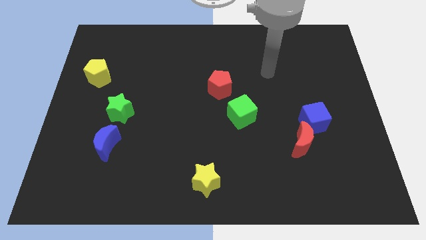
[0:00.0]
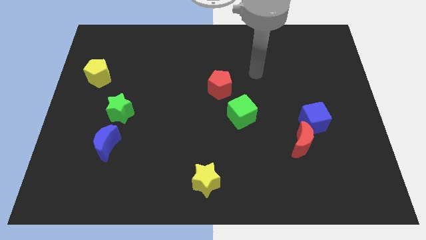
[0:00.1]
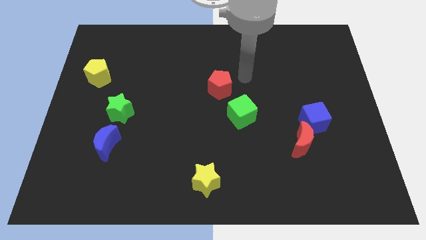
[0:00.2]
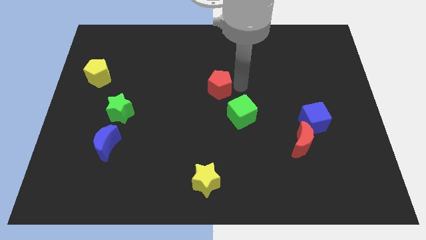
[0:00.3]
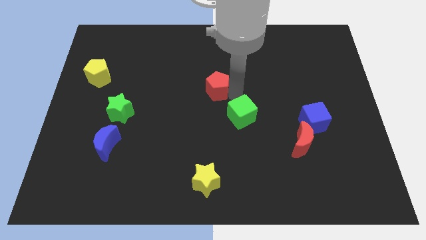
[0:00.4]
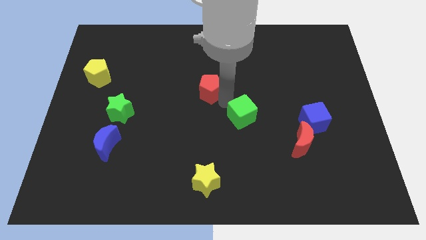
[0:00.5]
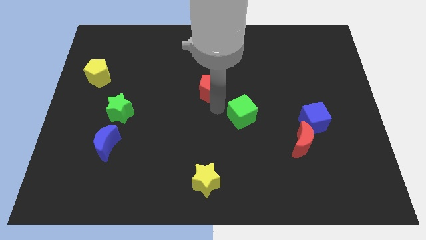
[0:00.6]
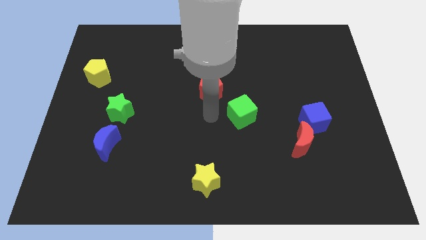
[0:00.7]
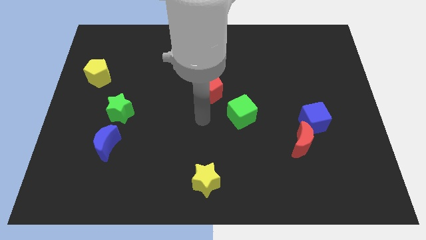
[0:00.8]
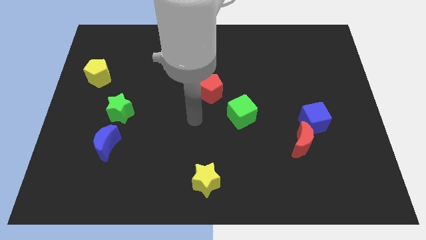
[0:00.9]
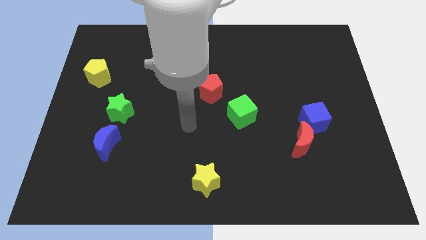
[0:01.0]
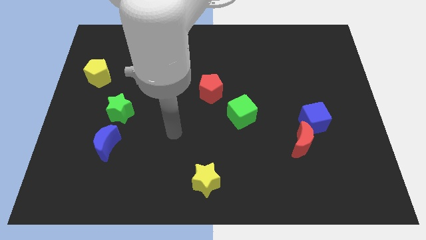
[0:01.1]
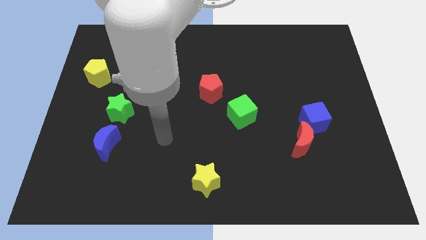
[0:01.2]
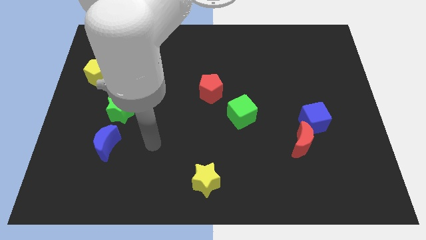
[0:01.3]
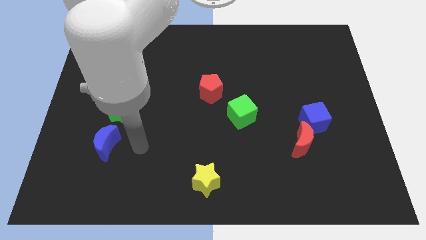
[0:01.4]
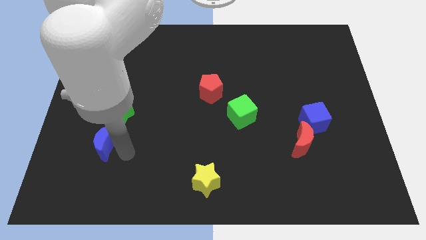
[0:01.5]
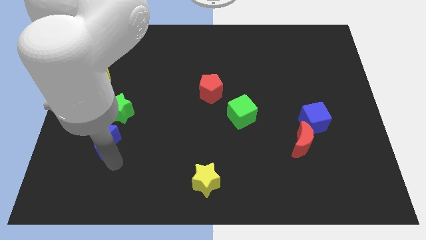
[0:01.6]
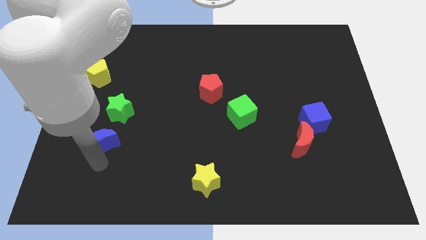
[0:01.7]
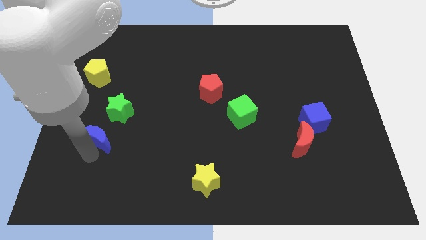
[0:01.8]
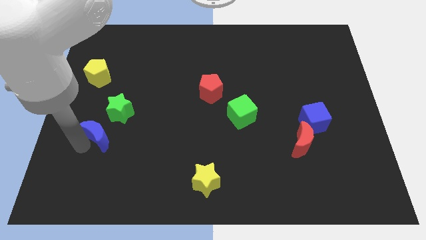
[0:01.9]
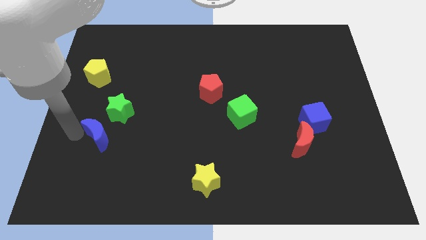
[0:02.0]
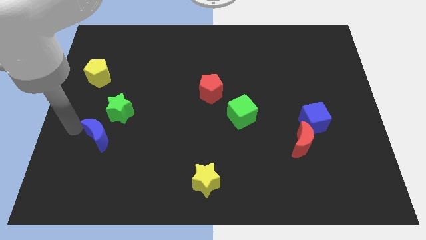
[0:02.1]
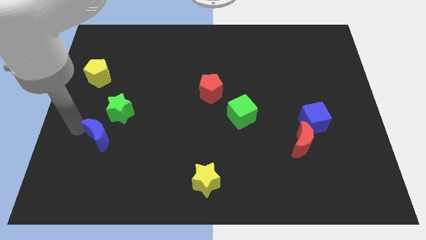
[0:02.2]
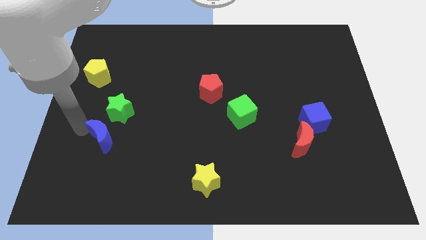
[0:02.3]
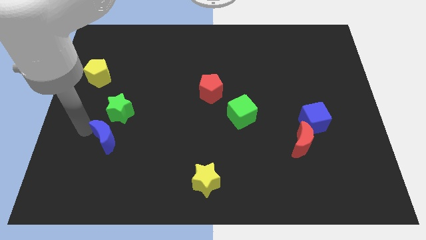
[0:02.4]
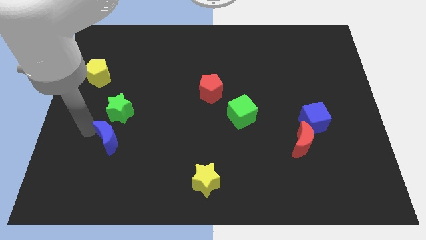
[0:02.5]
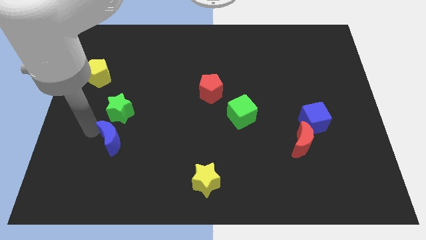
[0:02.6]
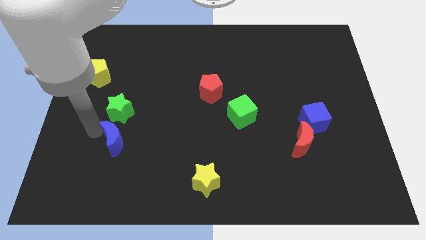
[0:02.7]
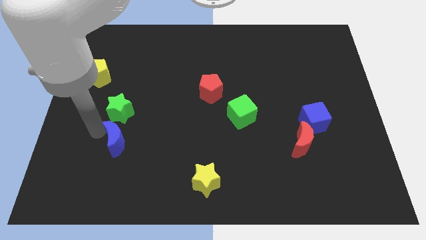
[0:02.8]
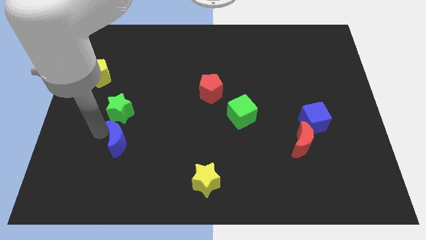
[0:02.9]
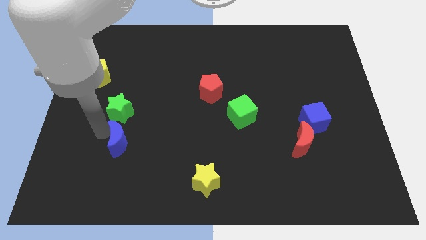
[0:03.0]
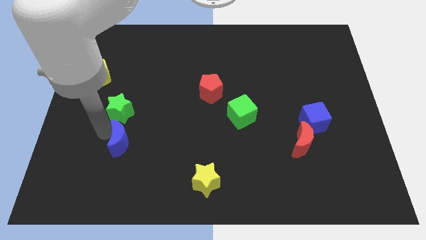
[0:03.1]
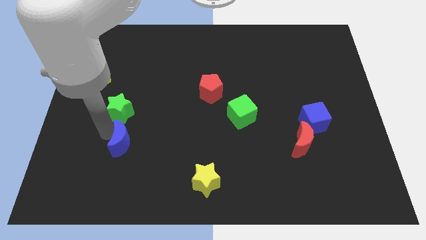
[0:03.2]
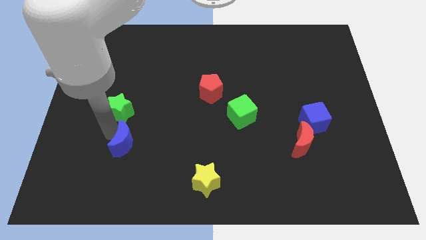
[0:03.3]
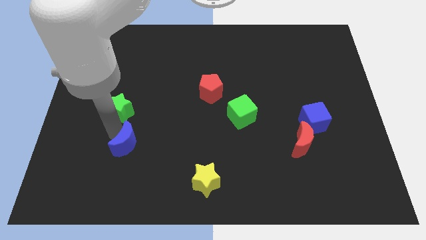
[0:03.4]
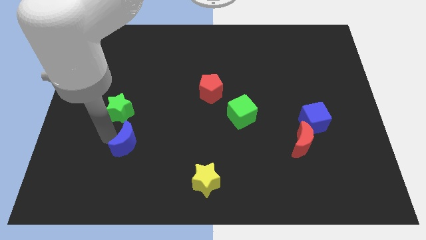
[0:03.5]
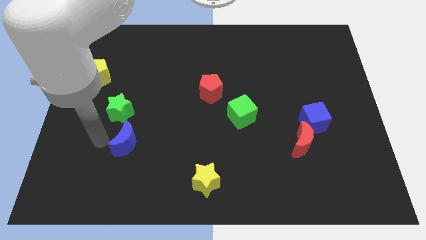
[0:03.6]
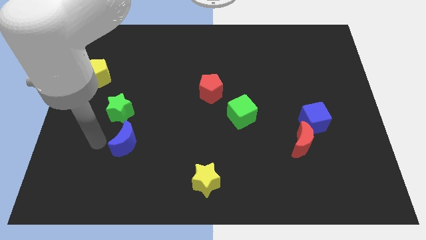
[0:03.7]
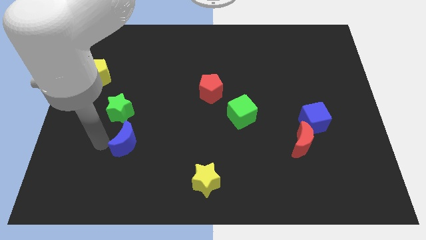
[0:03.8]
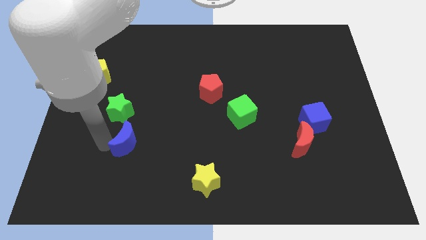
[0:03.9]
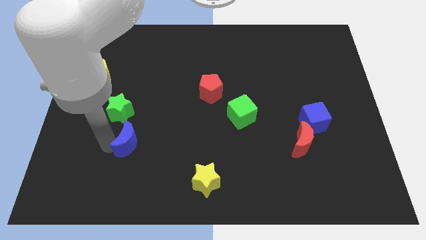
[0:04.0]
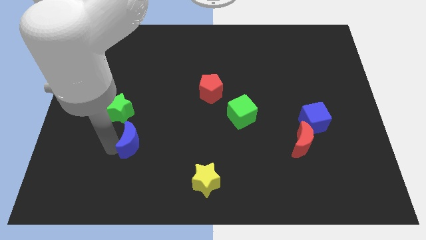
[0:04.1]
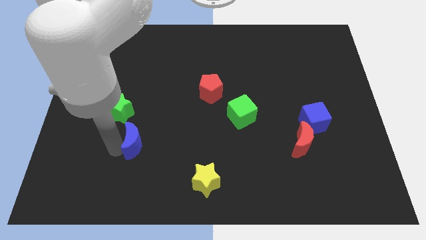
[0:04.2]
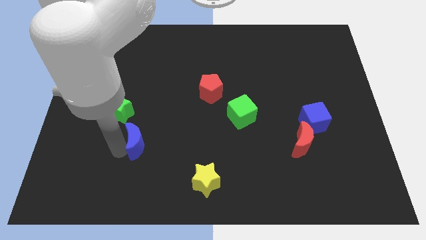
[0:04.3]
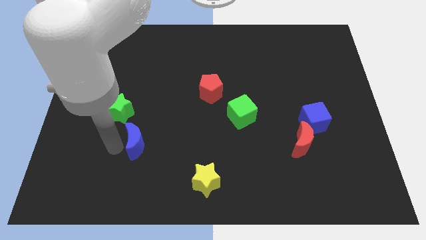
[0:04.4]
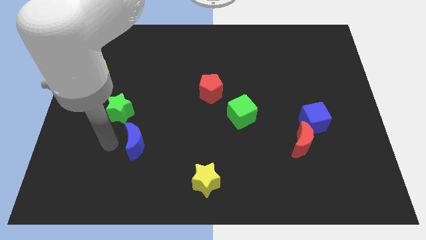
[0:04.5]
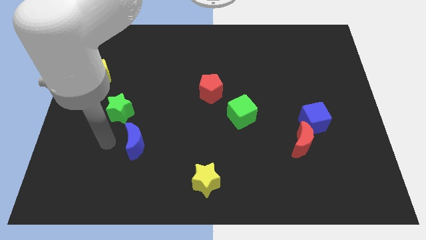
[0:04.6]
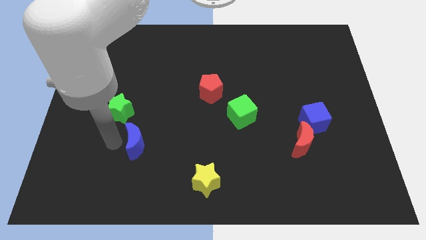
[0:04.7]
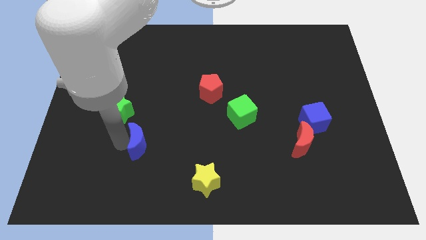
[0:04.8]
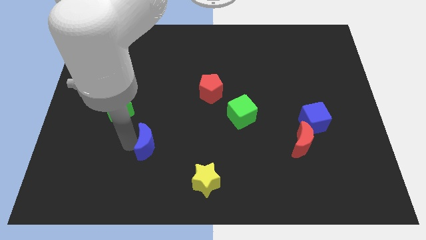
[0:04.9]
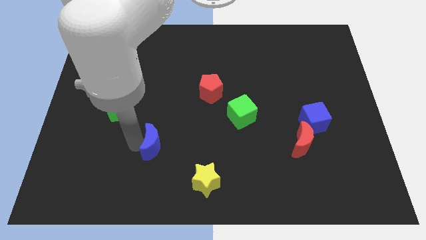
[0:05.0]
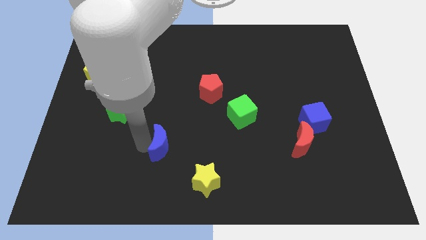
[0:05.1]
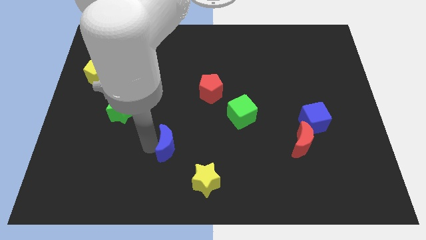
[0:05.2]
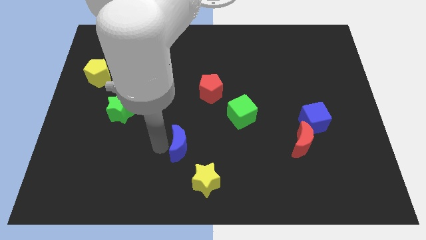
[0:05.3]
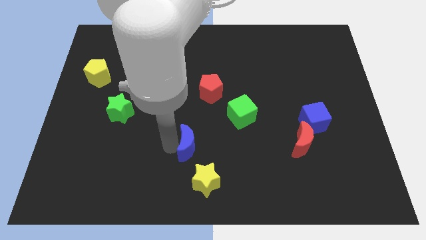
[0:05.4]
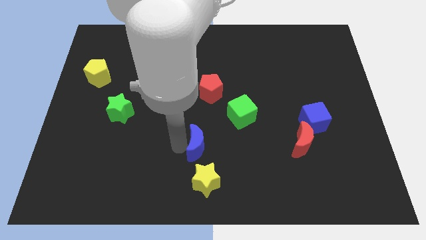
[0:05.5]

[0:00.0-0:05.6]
push the blue moon to the right

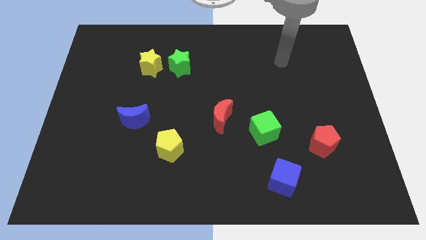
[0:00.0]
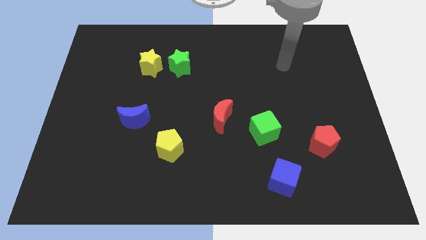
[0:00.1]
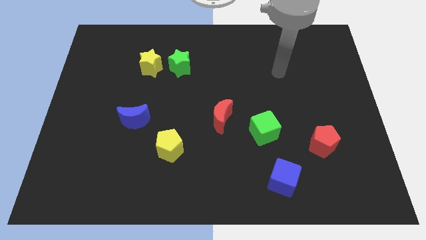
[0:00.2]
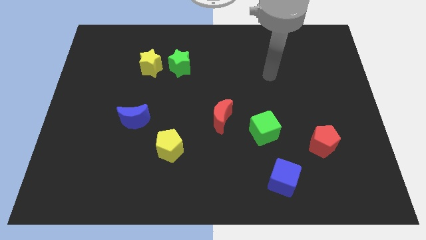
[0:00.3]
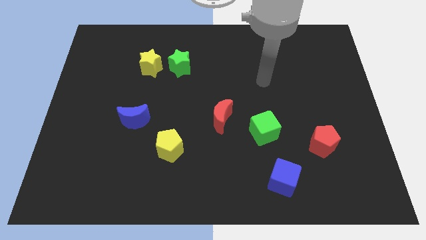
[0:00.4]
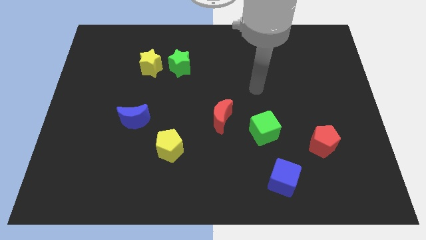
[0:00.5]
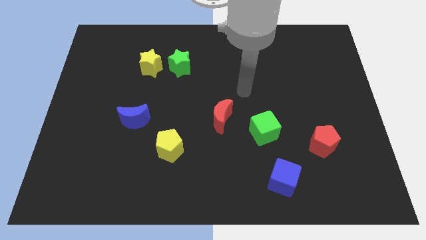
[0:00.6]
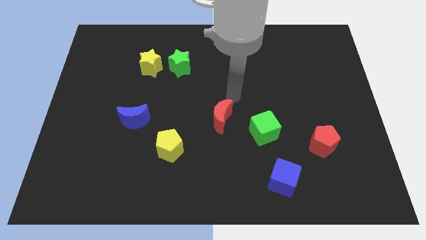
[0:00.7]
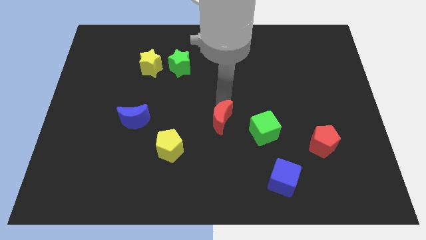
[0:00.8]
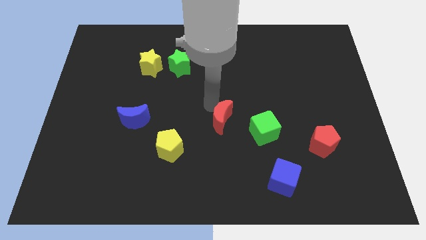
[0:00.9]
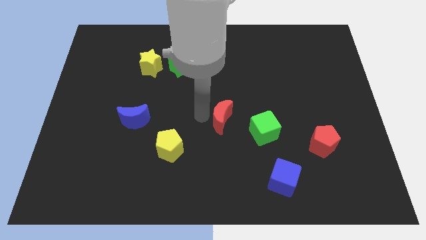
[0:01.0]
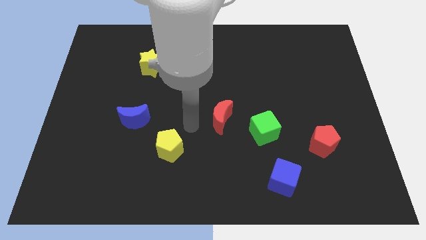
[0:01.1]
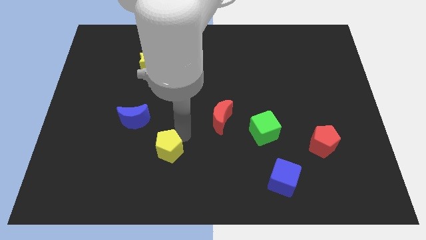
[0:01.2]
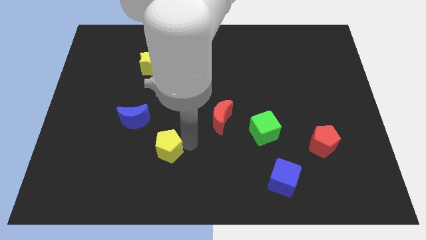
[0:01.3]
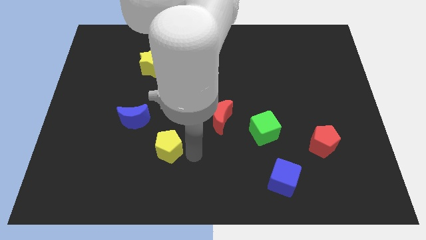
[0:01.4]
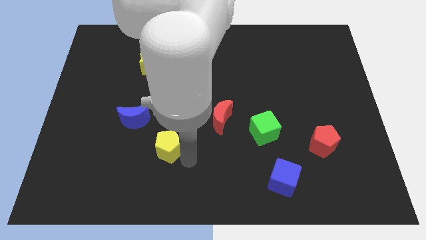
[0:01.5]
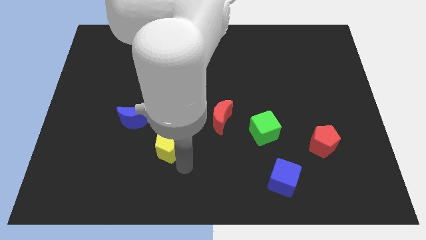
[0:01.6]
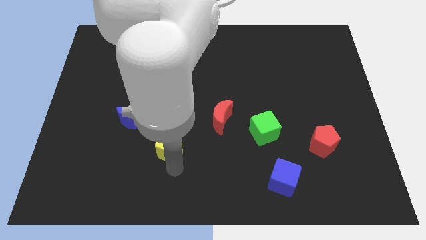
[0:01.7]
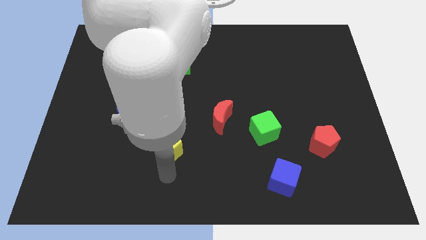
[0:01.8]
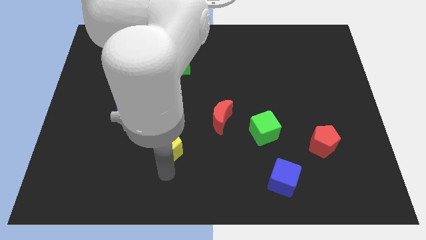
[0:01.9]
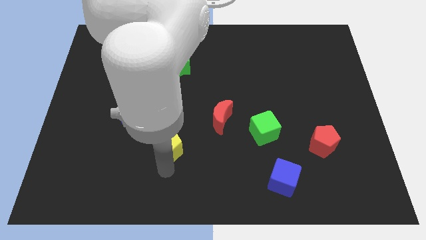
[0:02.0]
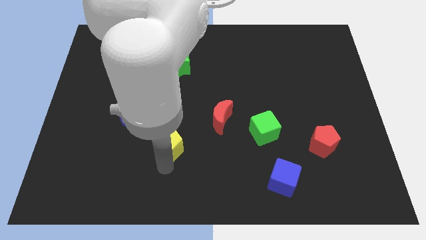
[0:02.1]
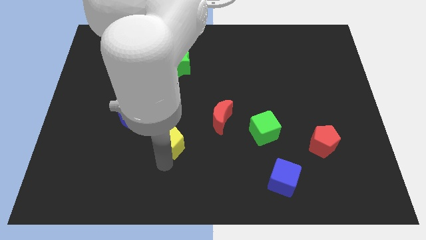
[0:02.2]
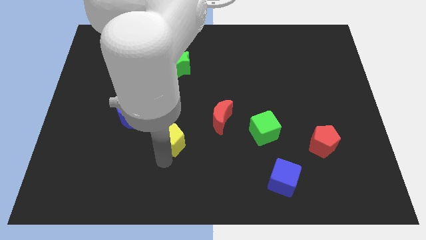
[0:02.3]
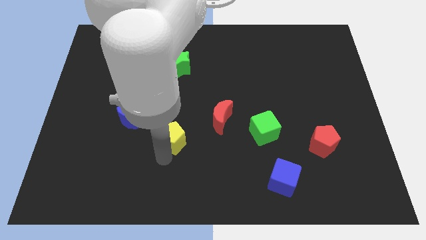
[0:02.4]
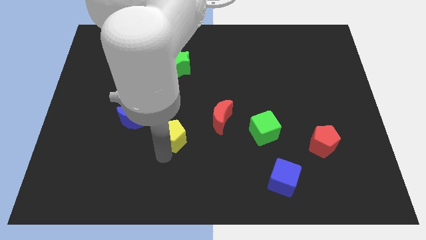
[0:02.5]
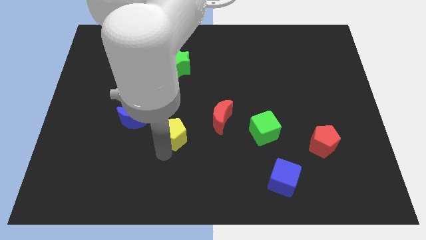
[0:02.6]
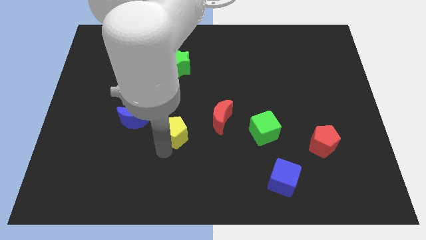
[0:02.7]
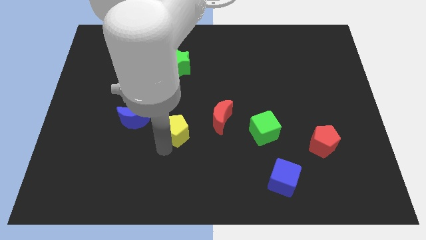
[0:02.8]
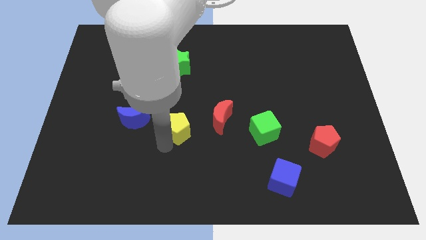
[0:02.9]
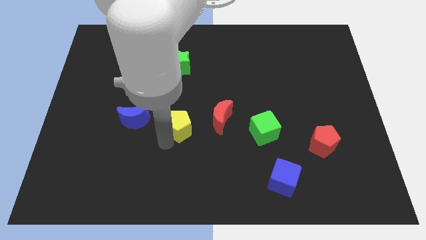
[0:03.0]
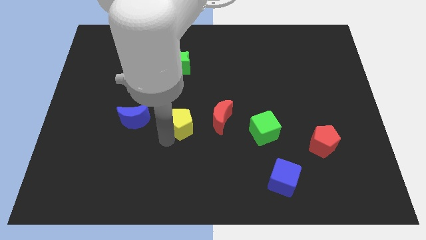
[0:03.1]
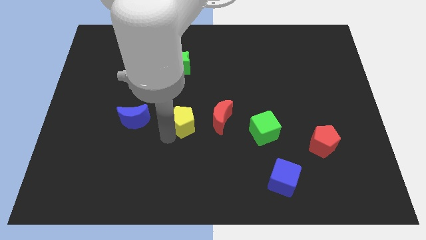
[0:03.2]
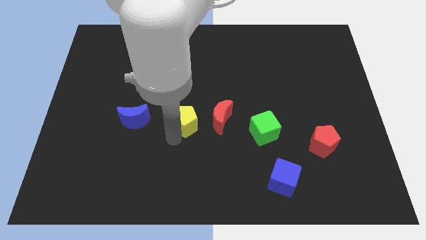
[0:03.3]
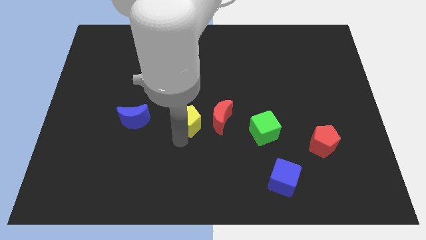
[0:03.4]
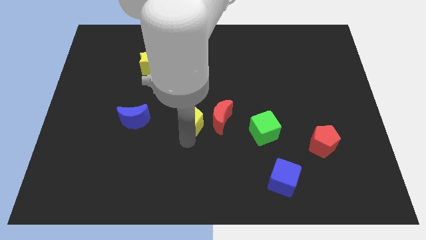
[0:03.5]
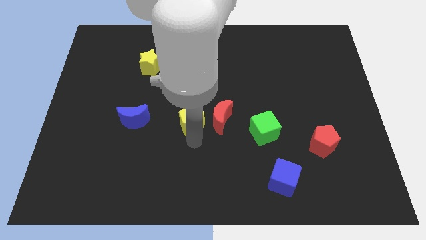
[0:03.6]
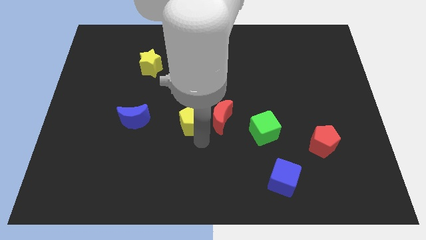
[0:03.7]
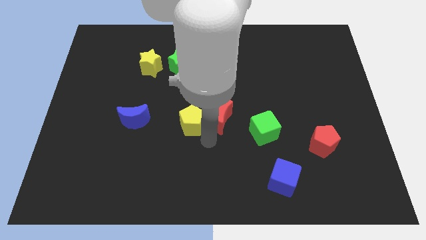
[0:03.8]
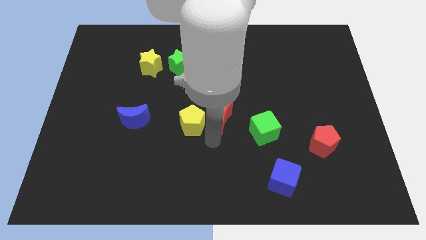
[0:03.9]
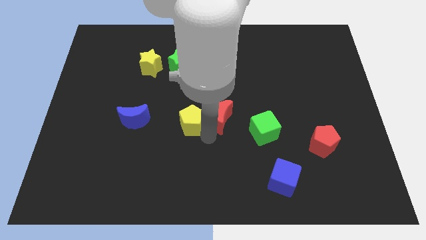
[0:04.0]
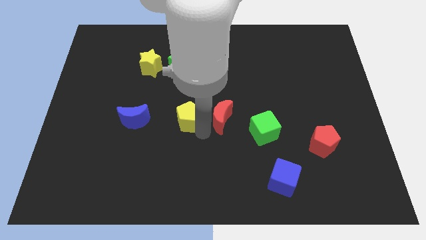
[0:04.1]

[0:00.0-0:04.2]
push the yellow pentagon a bit up
